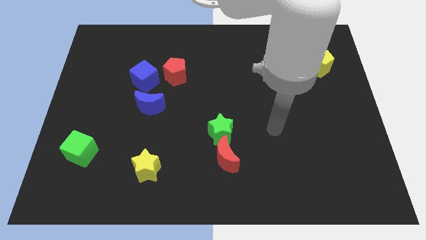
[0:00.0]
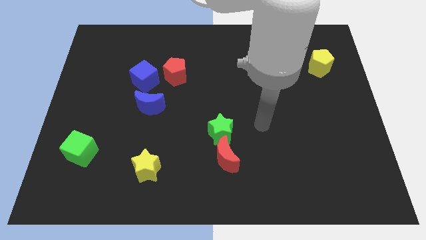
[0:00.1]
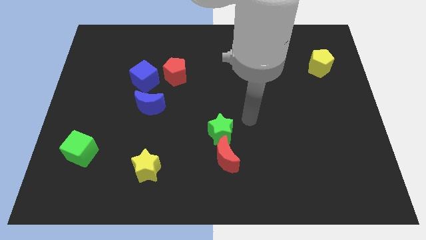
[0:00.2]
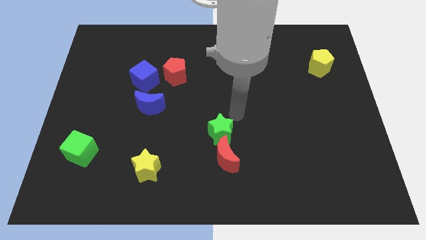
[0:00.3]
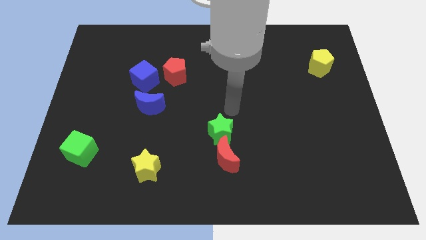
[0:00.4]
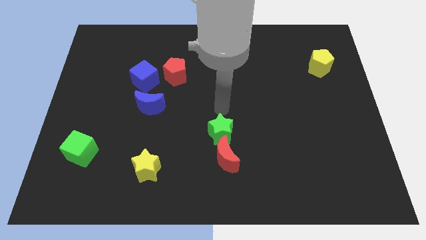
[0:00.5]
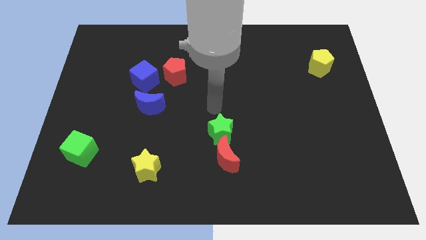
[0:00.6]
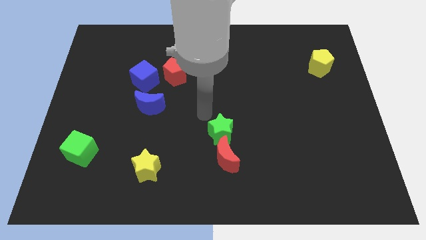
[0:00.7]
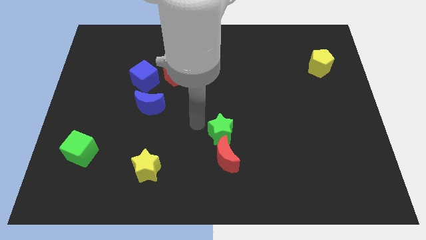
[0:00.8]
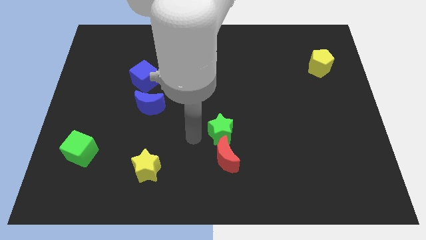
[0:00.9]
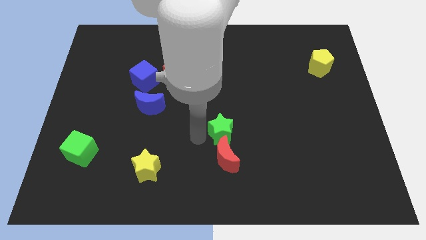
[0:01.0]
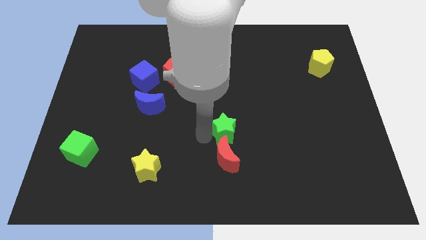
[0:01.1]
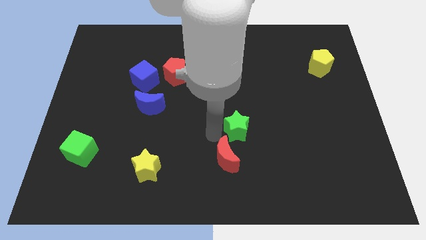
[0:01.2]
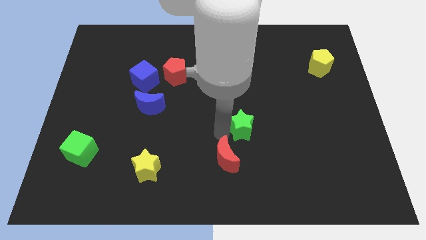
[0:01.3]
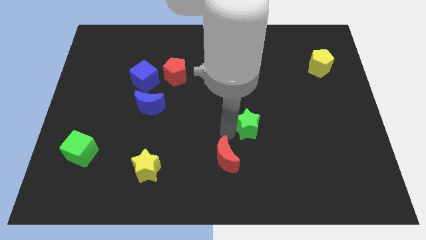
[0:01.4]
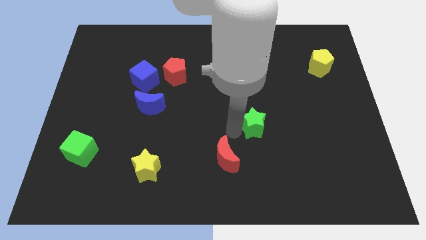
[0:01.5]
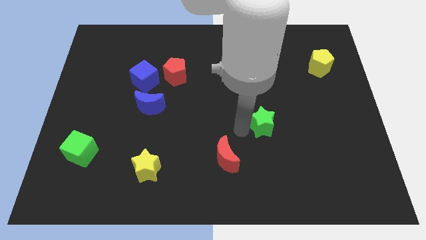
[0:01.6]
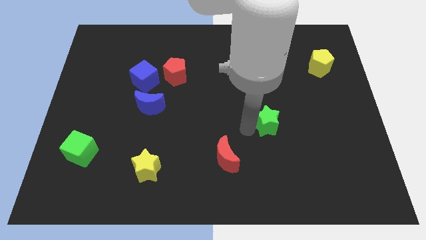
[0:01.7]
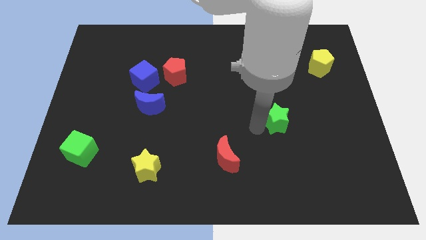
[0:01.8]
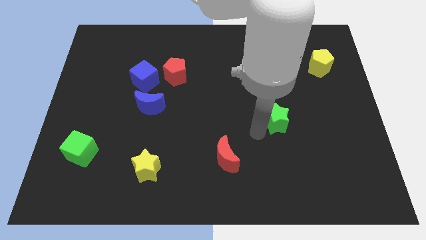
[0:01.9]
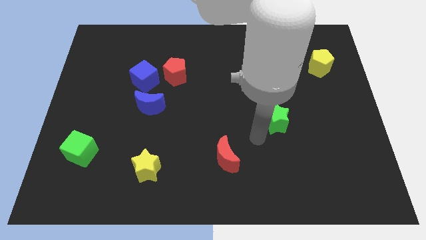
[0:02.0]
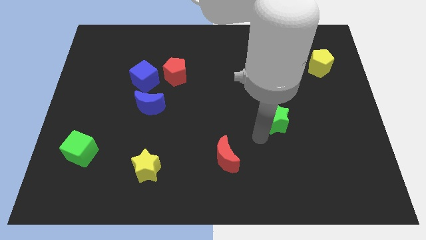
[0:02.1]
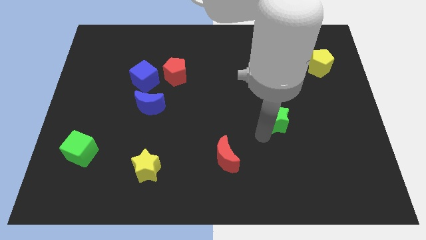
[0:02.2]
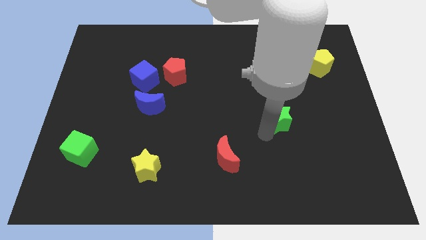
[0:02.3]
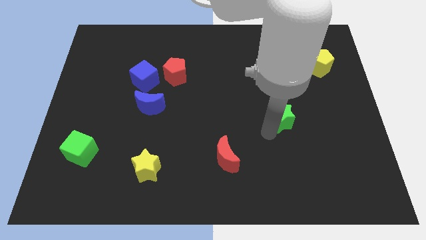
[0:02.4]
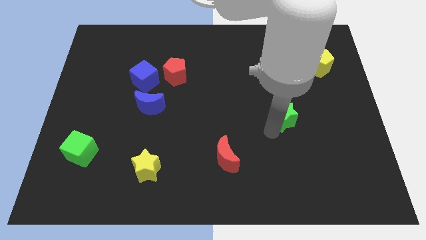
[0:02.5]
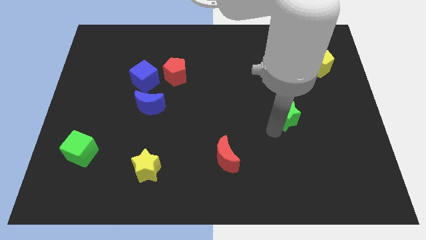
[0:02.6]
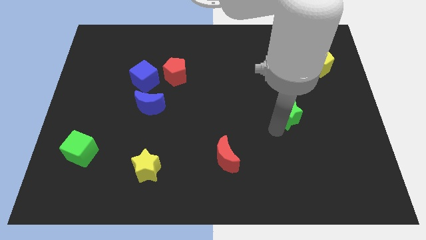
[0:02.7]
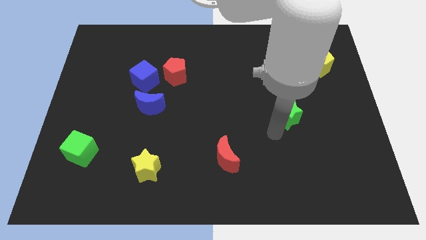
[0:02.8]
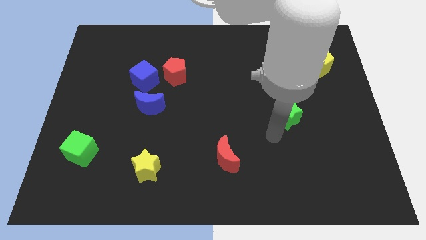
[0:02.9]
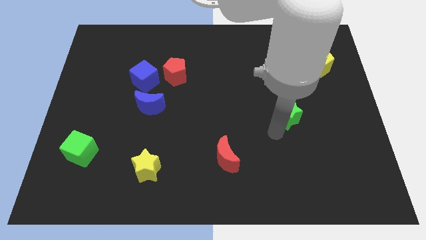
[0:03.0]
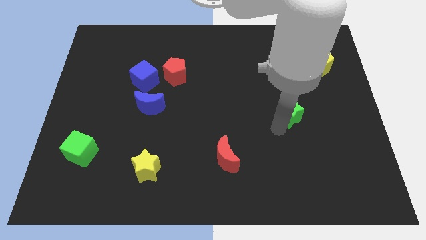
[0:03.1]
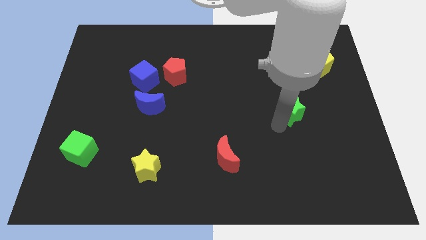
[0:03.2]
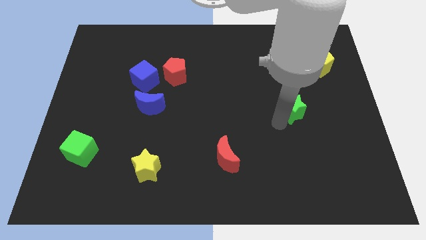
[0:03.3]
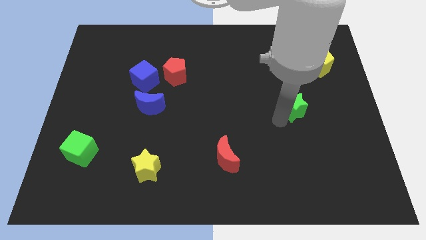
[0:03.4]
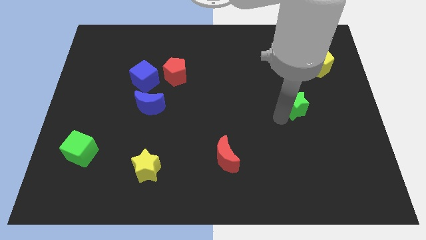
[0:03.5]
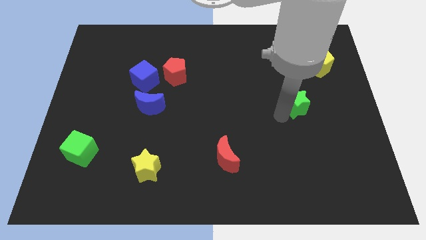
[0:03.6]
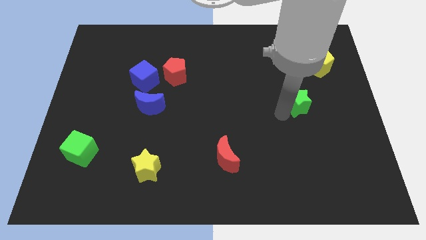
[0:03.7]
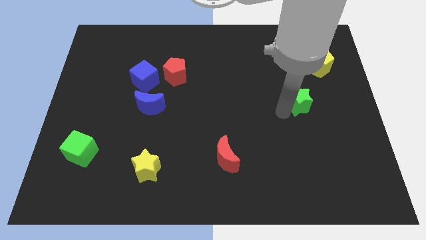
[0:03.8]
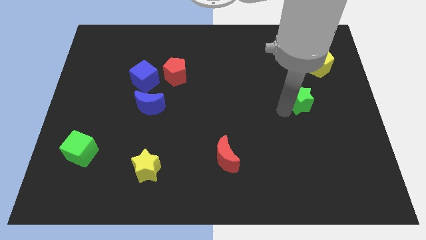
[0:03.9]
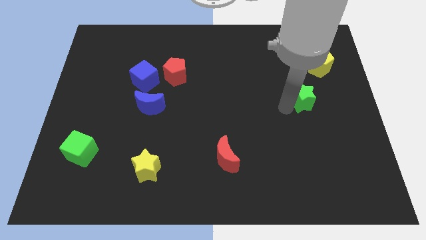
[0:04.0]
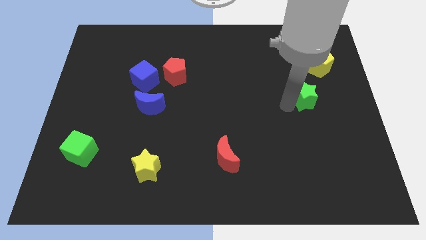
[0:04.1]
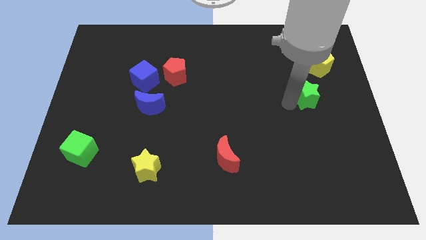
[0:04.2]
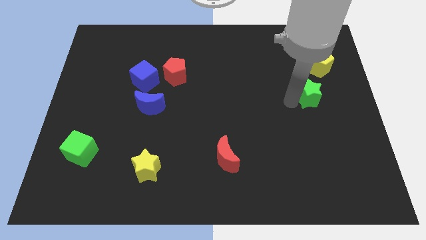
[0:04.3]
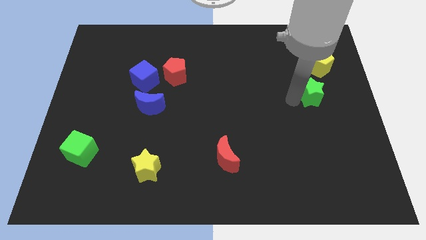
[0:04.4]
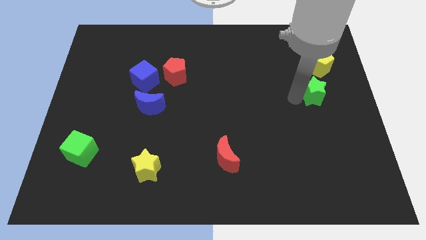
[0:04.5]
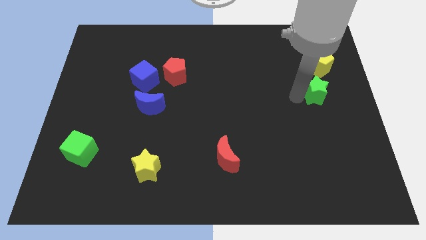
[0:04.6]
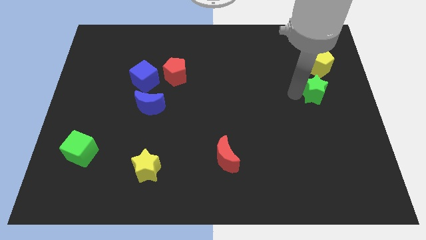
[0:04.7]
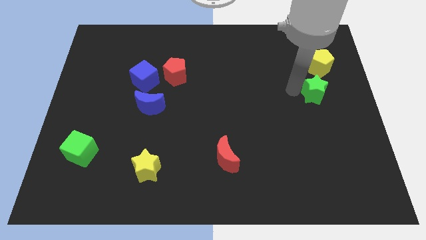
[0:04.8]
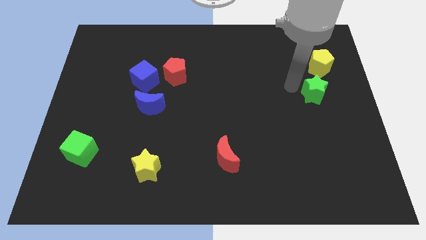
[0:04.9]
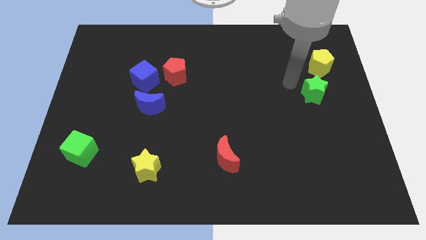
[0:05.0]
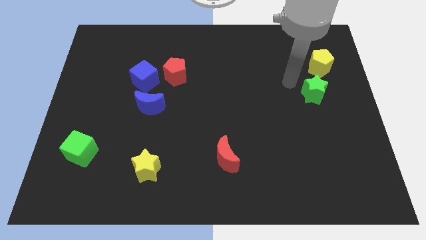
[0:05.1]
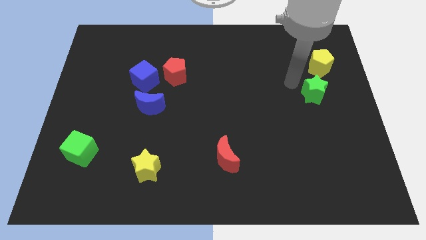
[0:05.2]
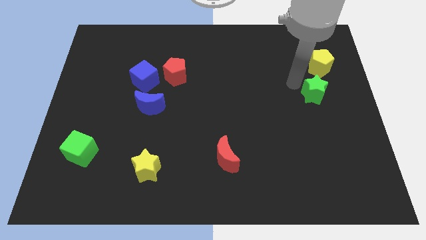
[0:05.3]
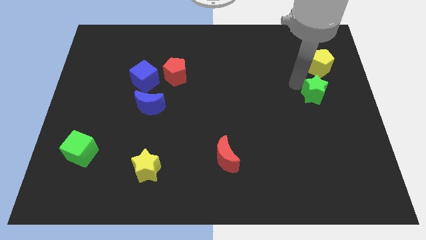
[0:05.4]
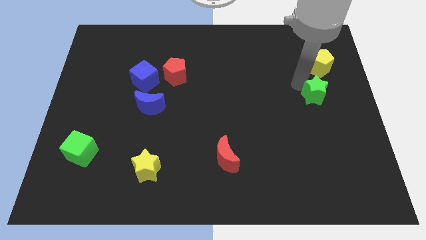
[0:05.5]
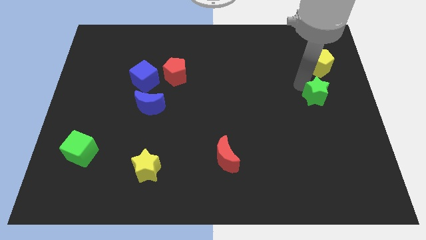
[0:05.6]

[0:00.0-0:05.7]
push the green star to the right side

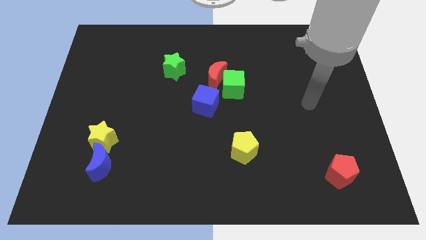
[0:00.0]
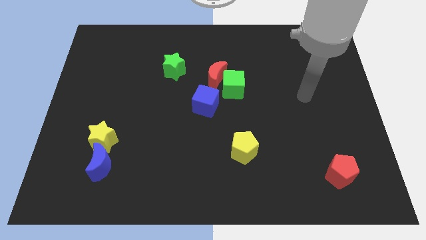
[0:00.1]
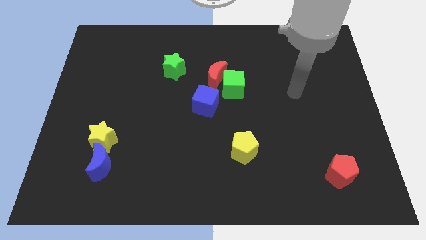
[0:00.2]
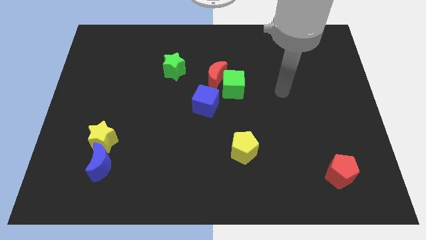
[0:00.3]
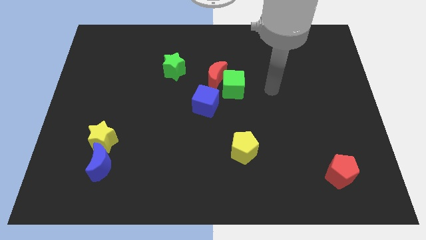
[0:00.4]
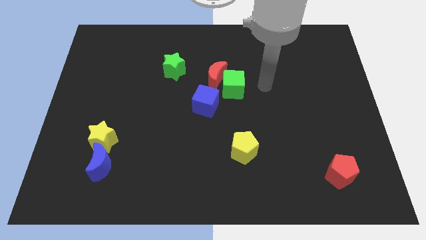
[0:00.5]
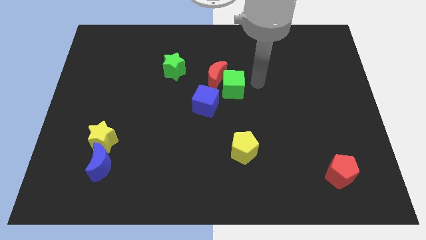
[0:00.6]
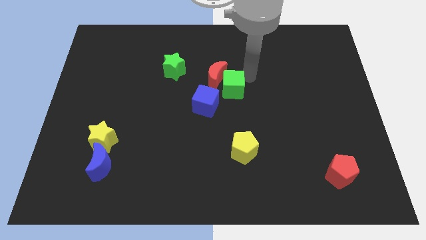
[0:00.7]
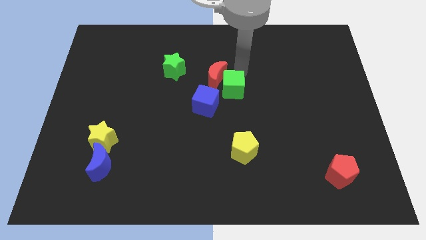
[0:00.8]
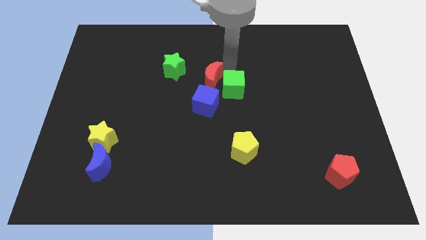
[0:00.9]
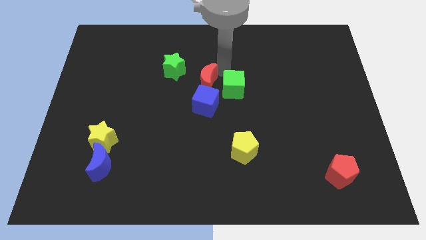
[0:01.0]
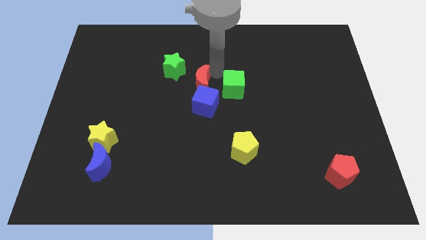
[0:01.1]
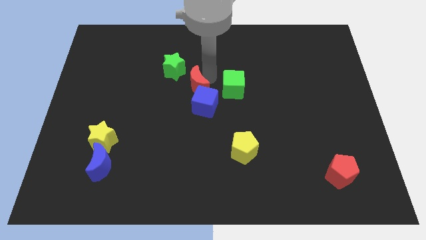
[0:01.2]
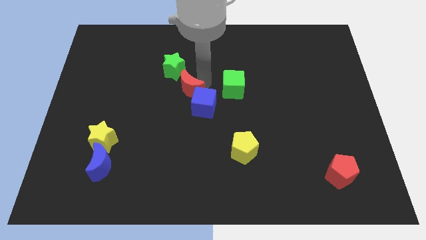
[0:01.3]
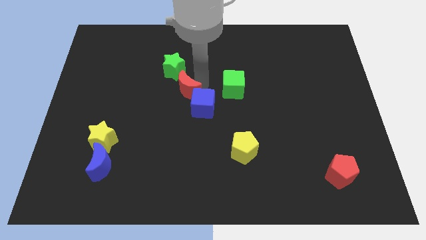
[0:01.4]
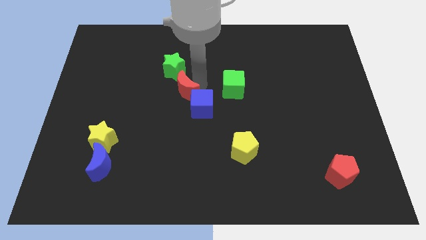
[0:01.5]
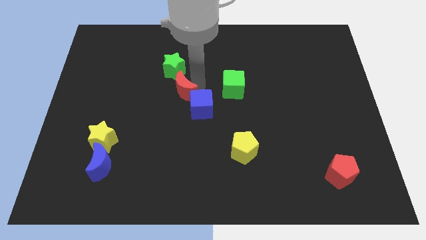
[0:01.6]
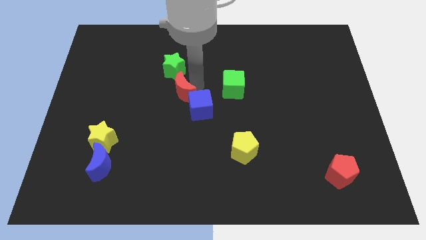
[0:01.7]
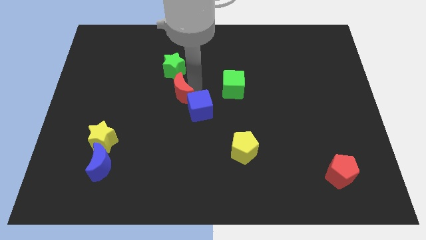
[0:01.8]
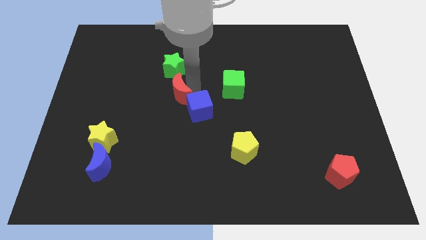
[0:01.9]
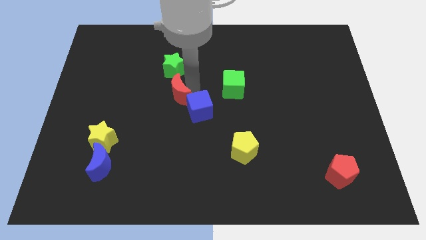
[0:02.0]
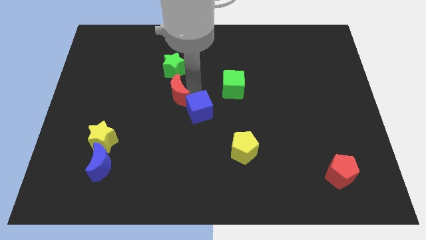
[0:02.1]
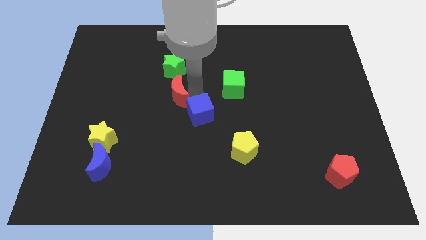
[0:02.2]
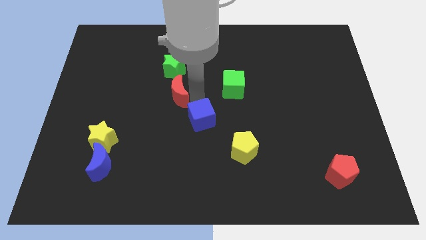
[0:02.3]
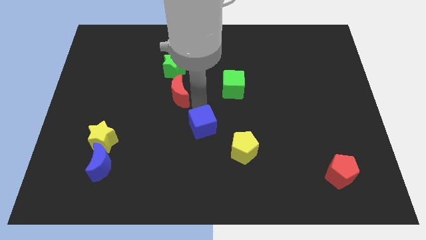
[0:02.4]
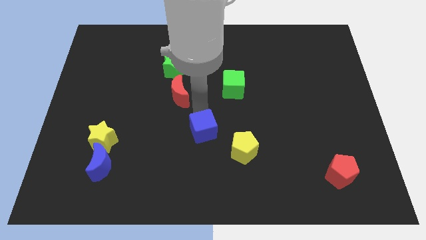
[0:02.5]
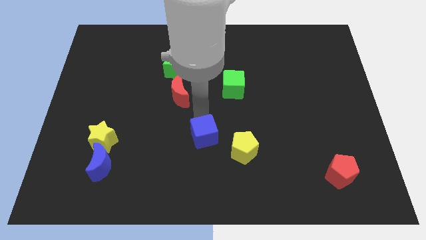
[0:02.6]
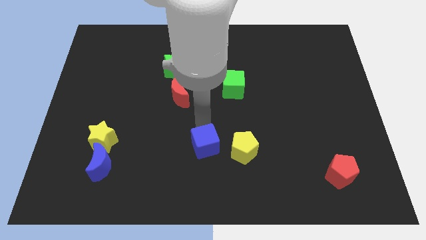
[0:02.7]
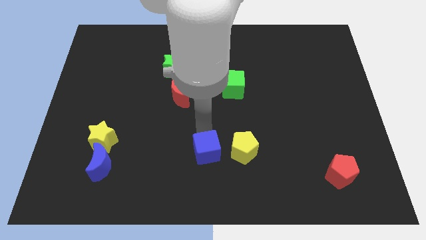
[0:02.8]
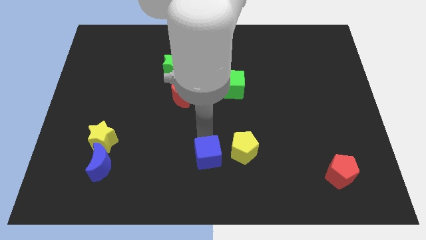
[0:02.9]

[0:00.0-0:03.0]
slide the blue cube to the bottom side
